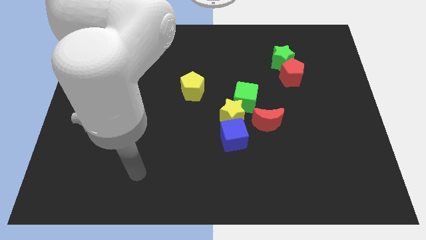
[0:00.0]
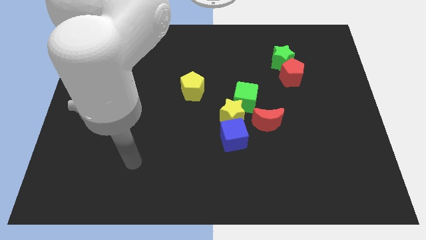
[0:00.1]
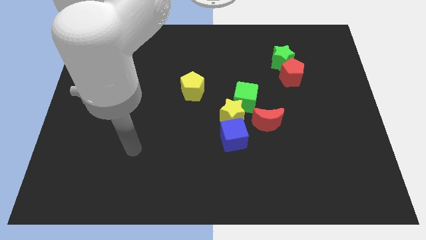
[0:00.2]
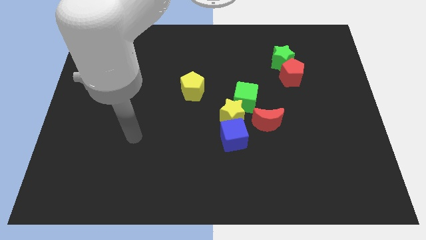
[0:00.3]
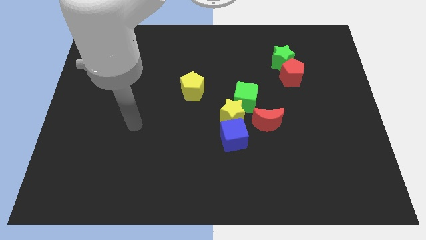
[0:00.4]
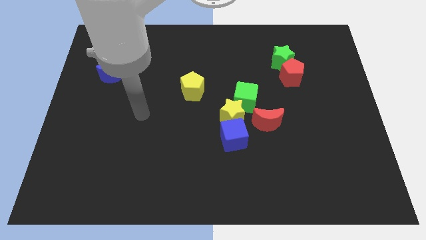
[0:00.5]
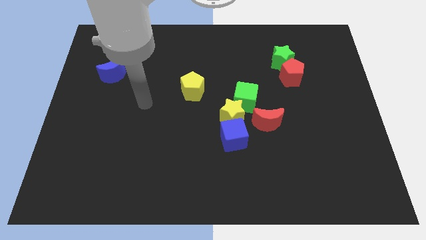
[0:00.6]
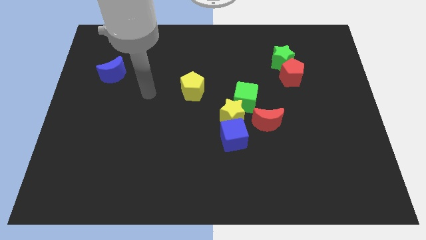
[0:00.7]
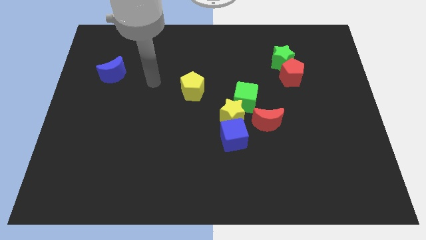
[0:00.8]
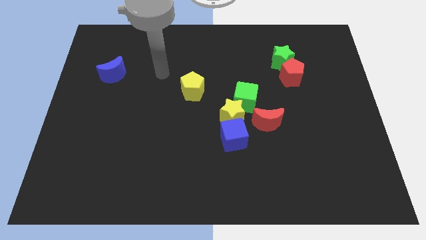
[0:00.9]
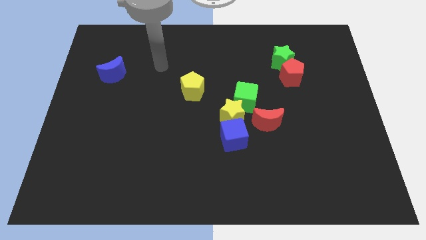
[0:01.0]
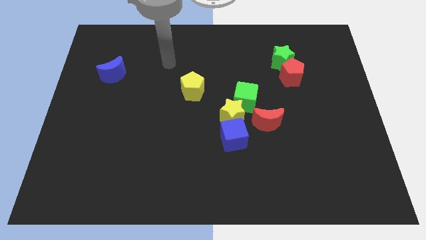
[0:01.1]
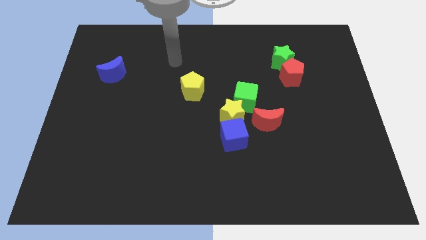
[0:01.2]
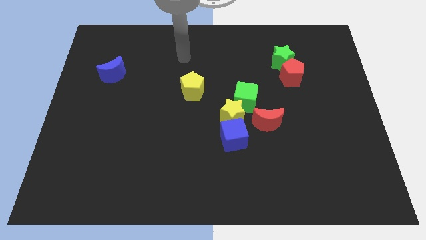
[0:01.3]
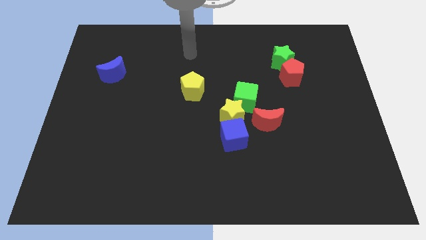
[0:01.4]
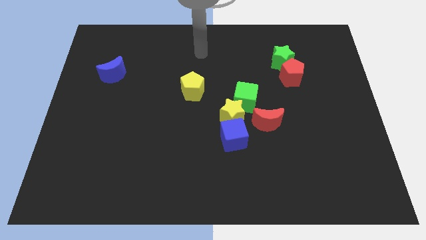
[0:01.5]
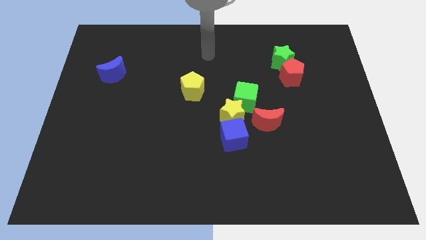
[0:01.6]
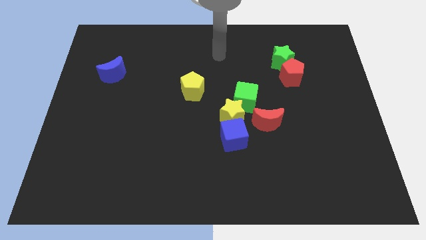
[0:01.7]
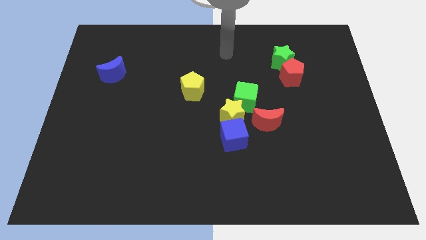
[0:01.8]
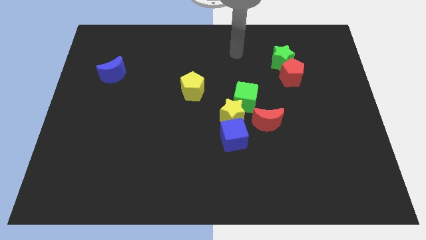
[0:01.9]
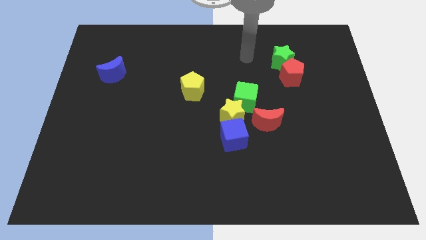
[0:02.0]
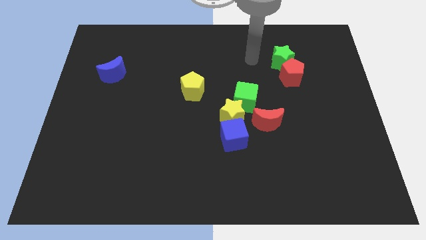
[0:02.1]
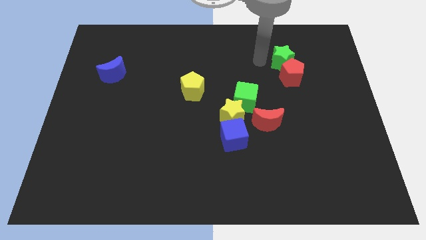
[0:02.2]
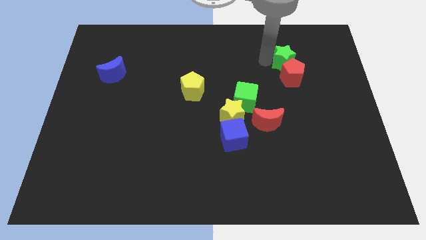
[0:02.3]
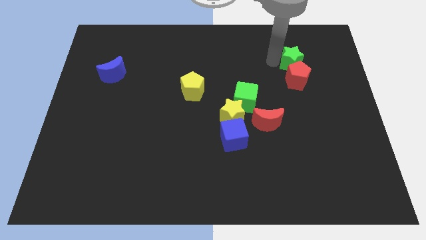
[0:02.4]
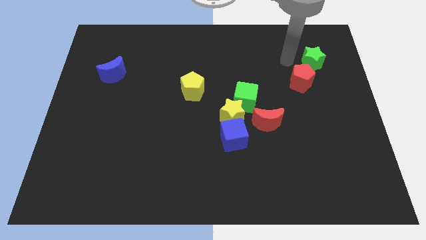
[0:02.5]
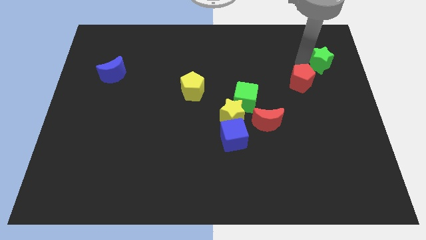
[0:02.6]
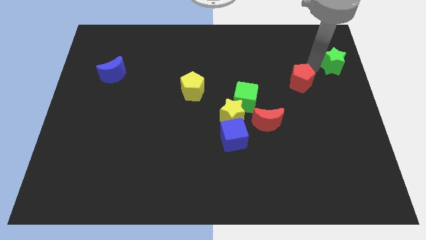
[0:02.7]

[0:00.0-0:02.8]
separate the red pentagon from the green star

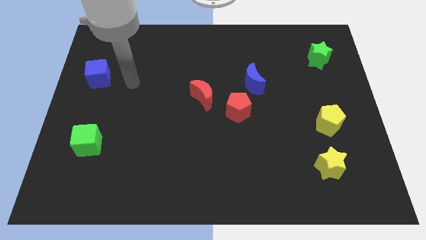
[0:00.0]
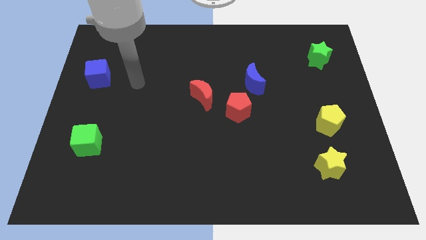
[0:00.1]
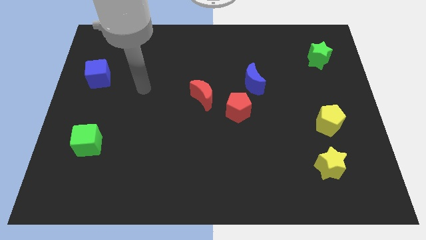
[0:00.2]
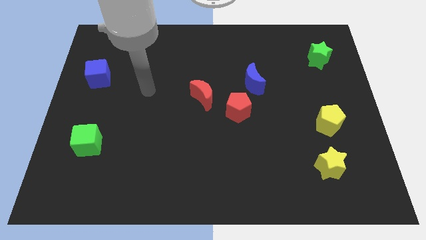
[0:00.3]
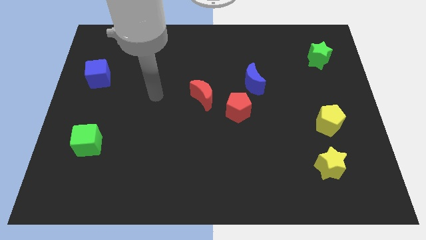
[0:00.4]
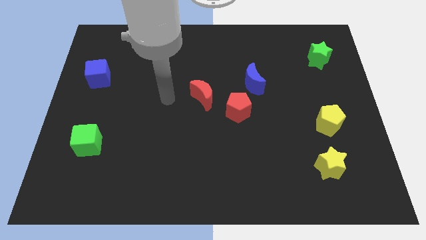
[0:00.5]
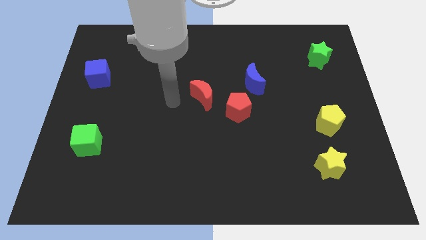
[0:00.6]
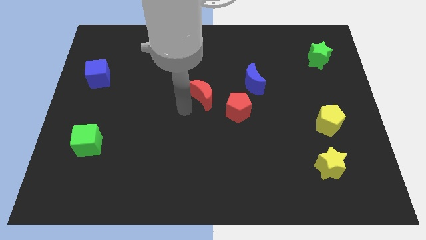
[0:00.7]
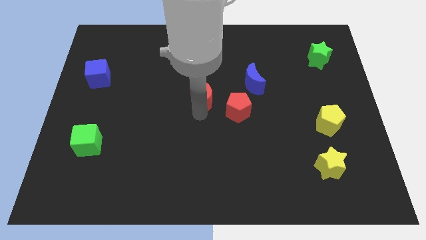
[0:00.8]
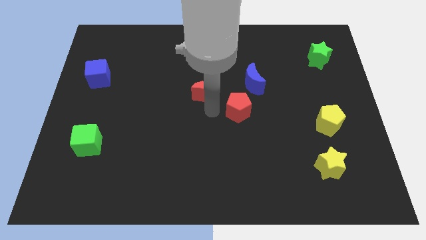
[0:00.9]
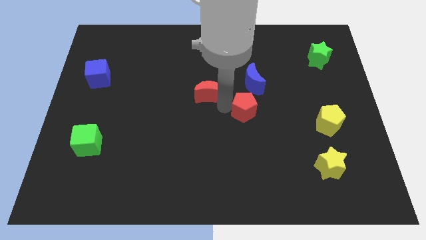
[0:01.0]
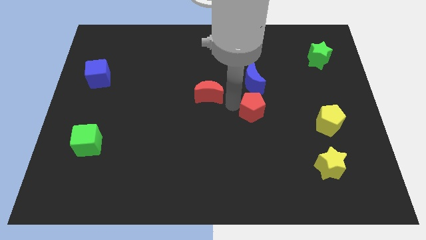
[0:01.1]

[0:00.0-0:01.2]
pull the red moon apart from the red pentagon

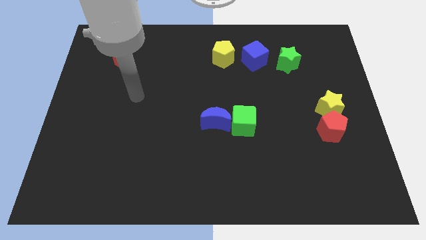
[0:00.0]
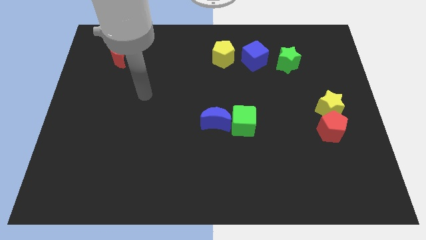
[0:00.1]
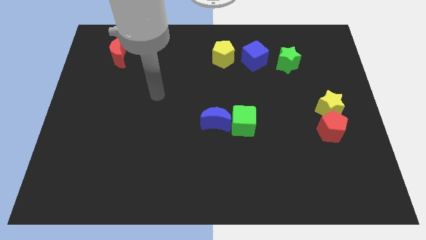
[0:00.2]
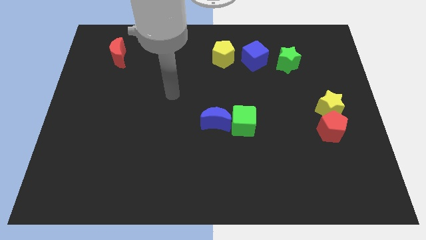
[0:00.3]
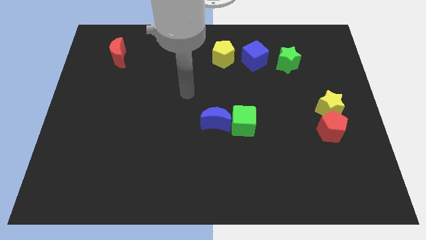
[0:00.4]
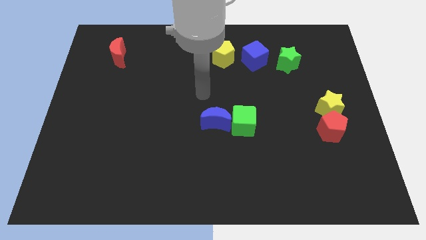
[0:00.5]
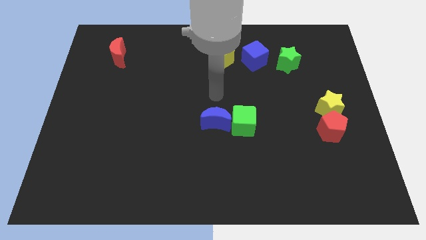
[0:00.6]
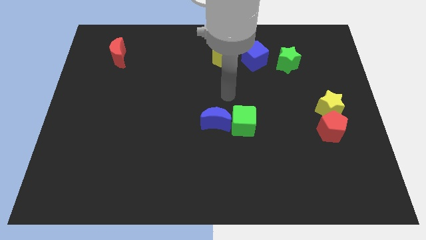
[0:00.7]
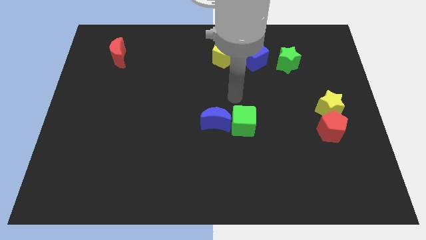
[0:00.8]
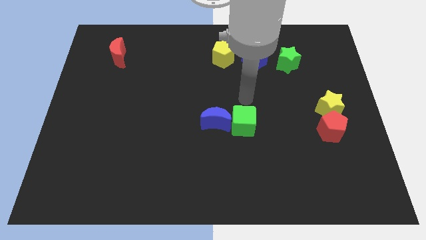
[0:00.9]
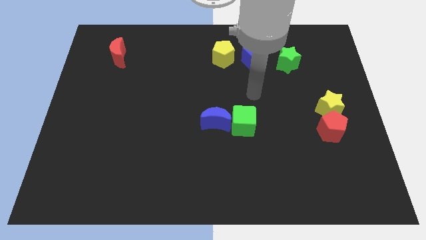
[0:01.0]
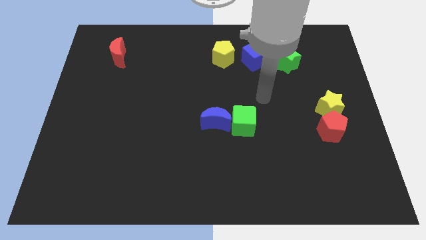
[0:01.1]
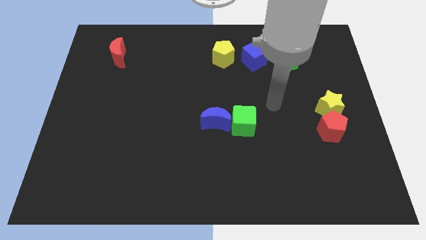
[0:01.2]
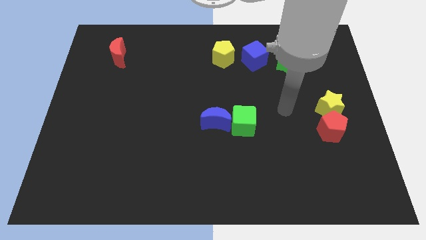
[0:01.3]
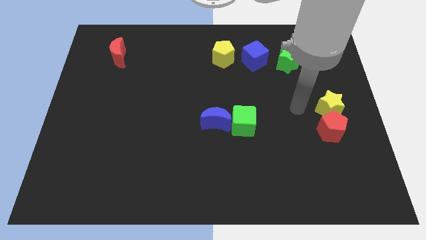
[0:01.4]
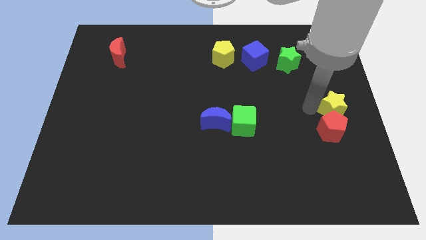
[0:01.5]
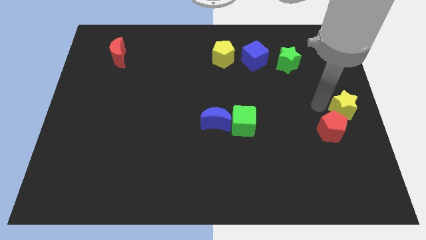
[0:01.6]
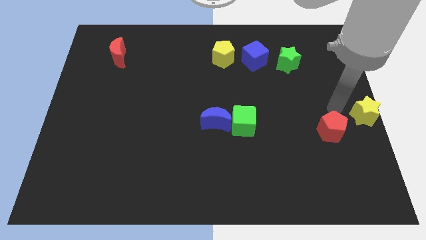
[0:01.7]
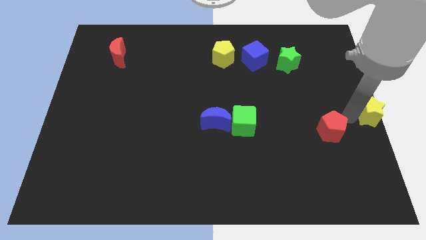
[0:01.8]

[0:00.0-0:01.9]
separate the red pentagon from the yellow star

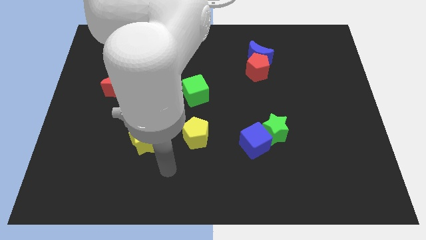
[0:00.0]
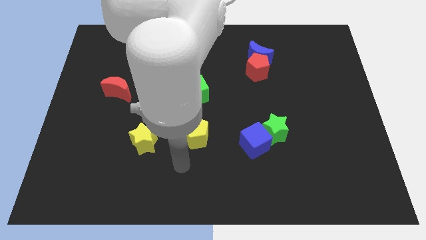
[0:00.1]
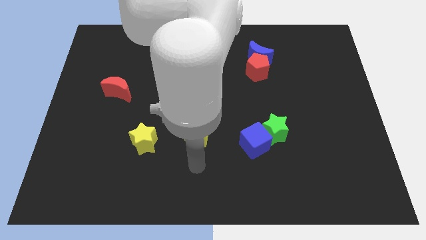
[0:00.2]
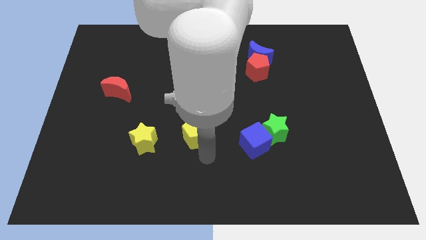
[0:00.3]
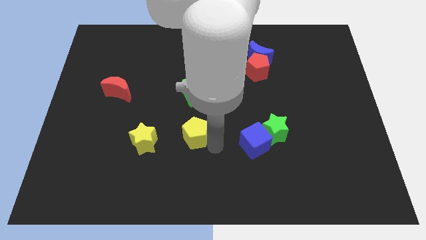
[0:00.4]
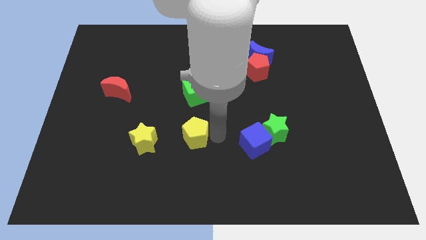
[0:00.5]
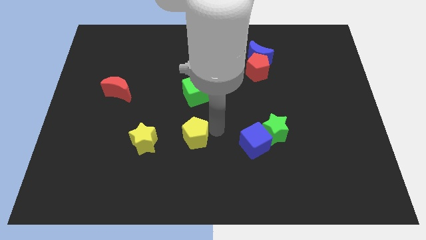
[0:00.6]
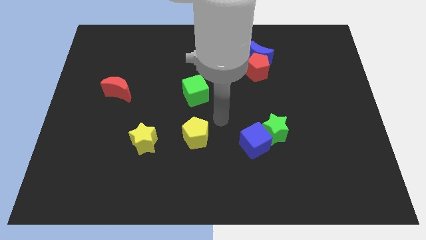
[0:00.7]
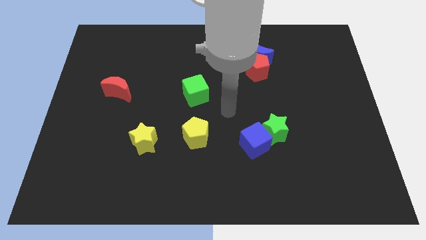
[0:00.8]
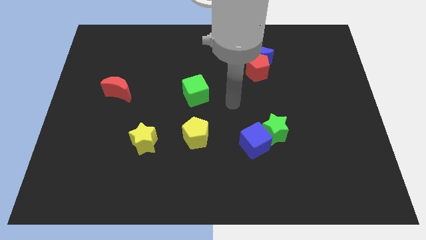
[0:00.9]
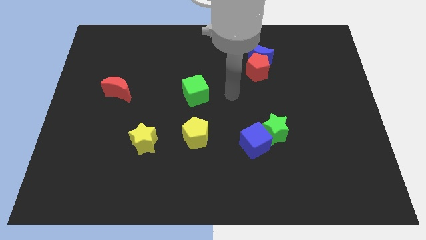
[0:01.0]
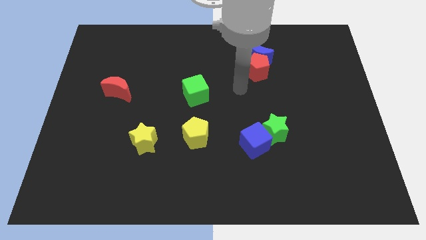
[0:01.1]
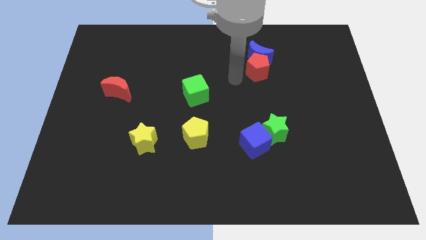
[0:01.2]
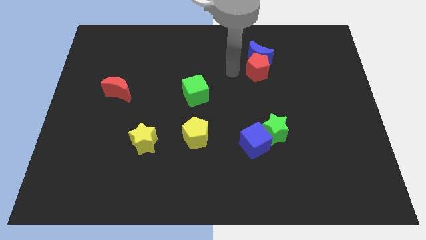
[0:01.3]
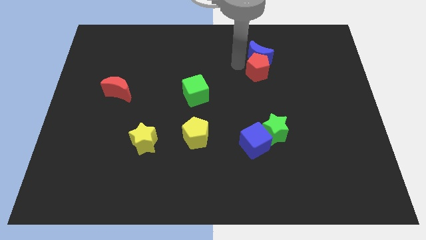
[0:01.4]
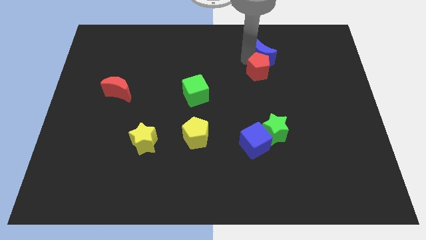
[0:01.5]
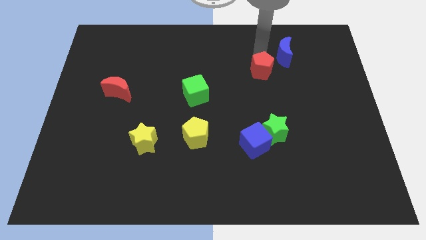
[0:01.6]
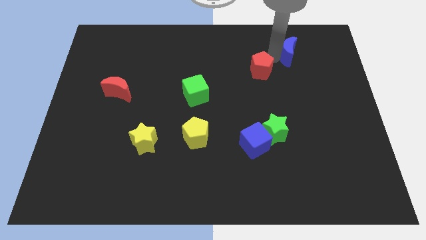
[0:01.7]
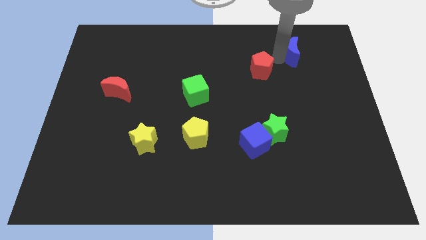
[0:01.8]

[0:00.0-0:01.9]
move the red pentagon away from the blue moon

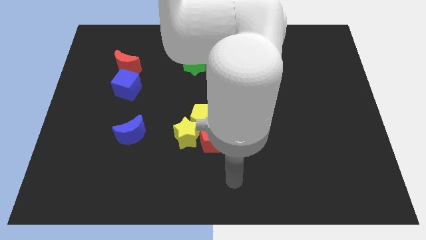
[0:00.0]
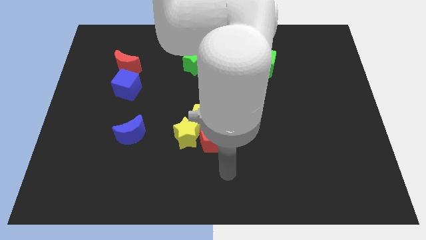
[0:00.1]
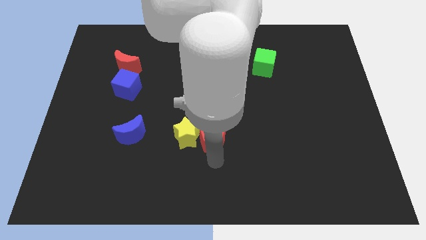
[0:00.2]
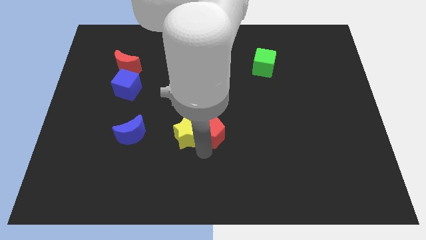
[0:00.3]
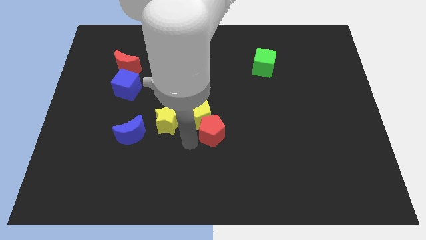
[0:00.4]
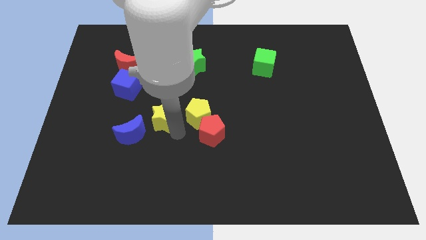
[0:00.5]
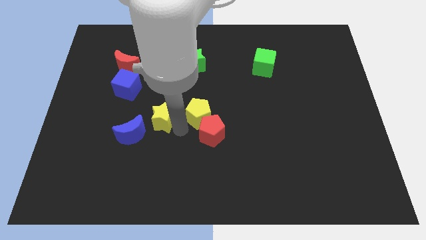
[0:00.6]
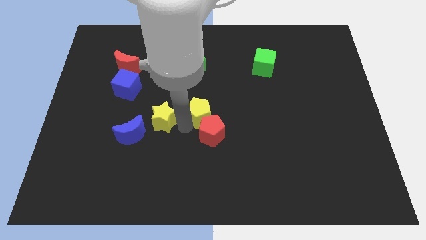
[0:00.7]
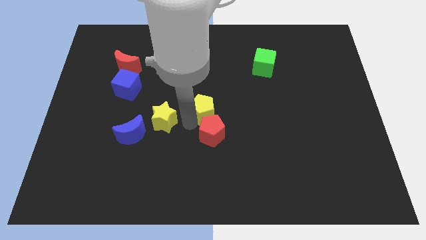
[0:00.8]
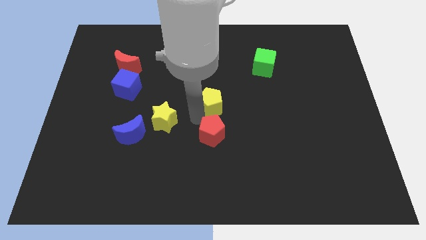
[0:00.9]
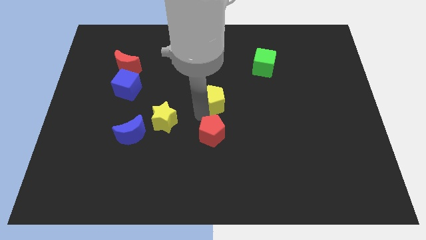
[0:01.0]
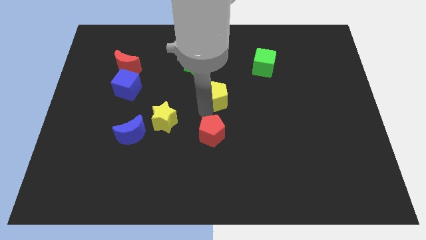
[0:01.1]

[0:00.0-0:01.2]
move the yellow pentagon away from the yellow star and red pentagon

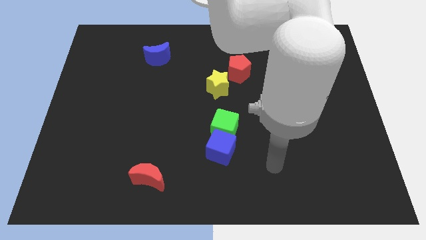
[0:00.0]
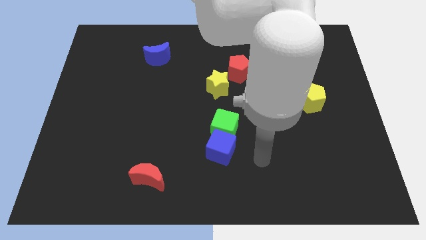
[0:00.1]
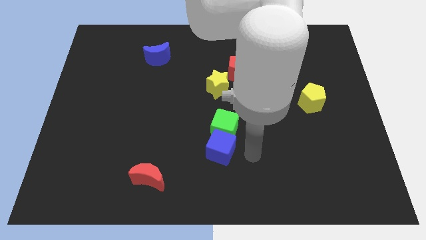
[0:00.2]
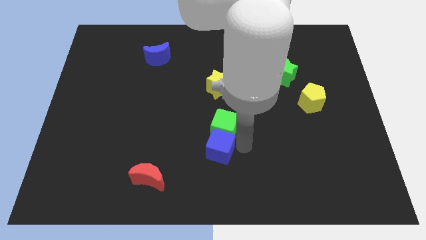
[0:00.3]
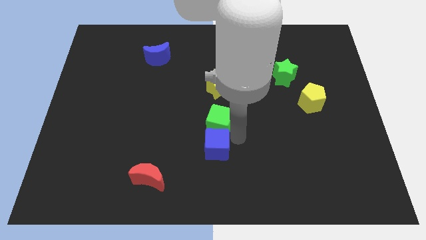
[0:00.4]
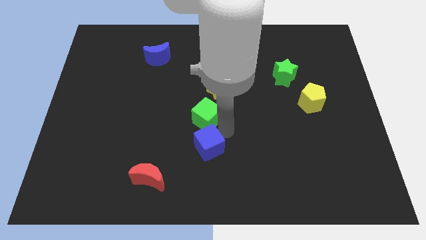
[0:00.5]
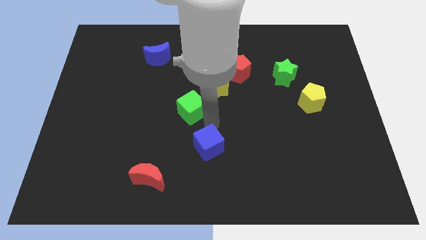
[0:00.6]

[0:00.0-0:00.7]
separate the blue cube from the green cube
